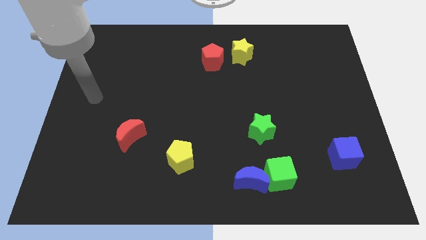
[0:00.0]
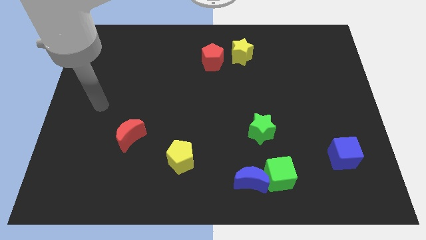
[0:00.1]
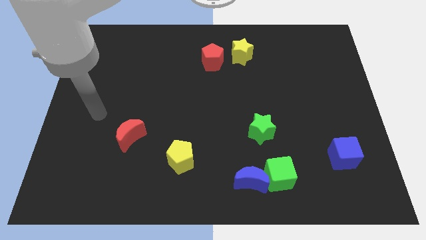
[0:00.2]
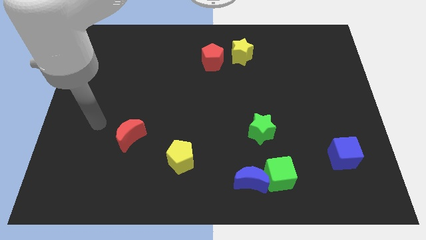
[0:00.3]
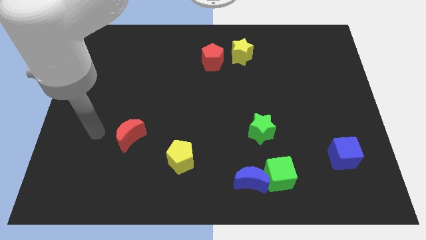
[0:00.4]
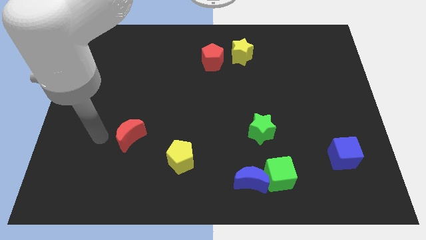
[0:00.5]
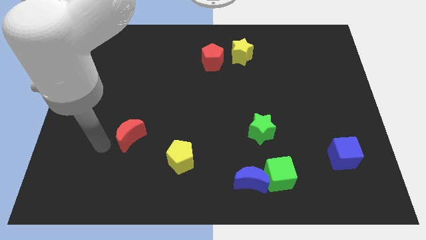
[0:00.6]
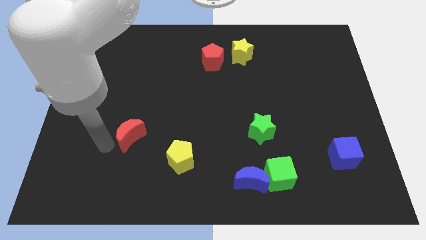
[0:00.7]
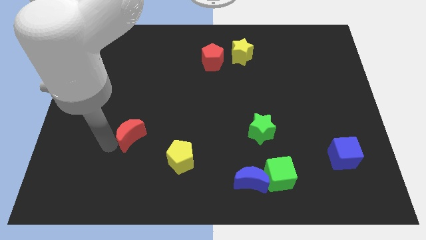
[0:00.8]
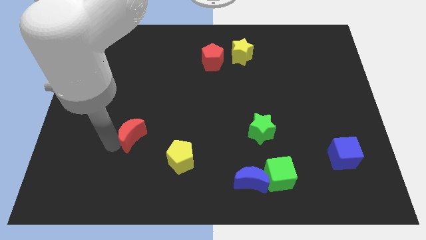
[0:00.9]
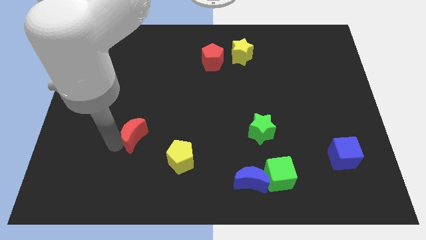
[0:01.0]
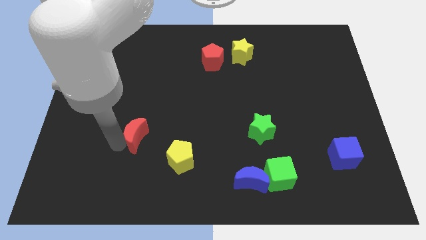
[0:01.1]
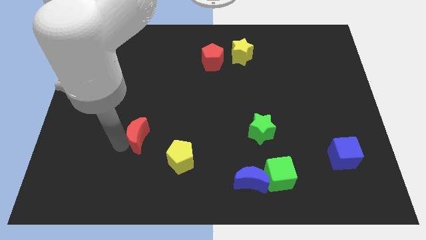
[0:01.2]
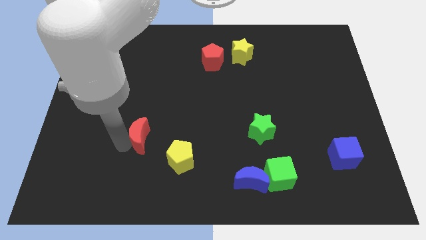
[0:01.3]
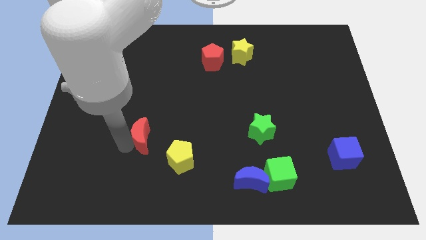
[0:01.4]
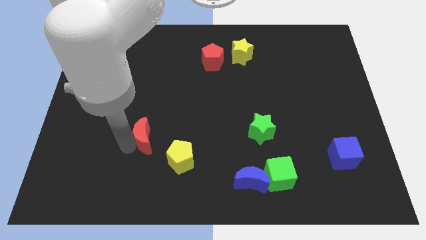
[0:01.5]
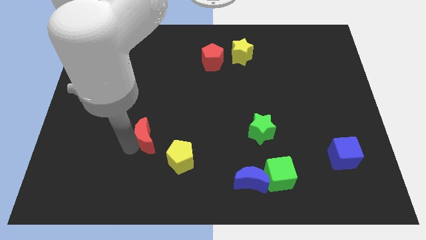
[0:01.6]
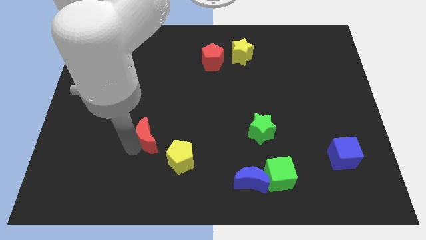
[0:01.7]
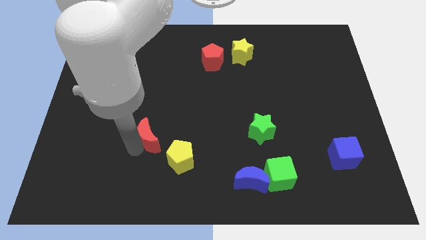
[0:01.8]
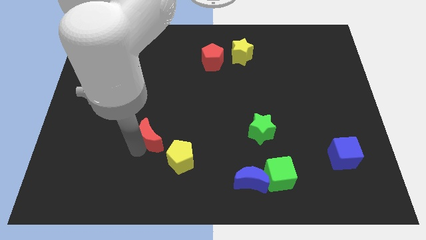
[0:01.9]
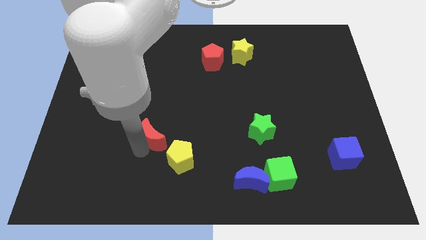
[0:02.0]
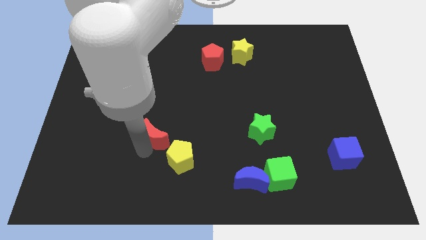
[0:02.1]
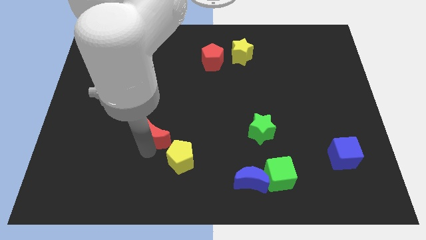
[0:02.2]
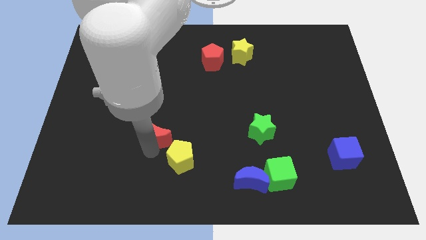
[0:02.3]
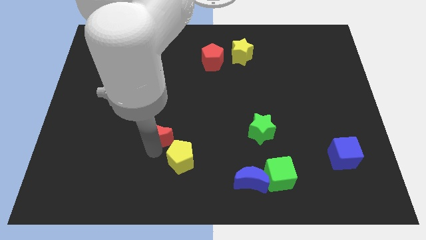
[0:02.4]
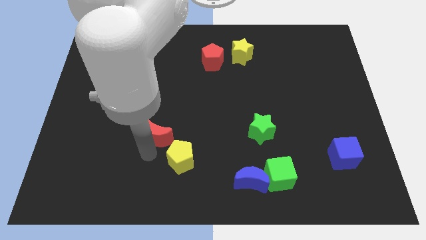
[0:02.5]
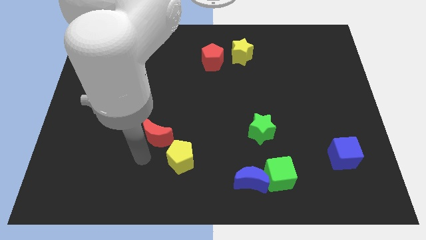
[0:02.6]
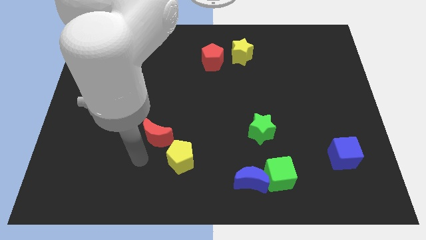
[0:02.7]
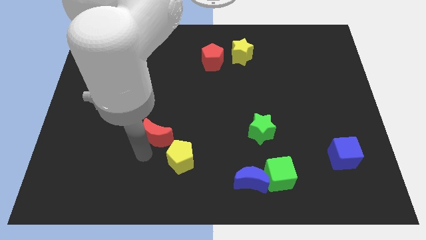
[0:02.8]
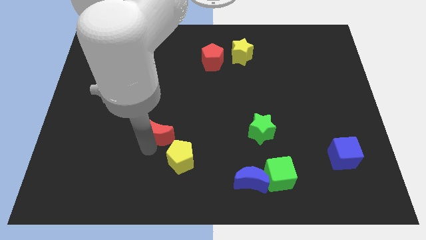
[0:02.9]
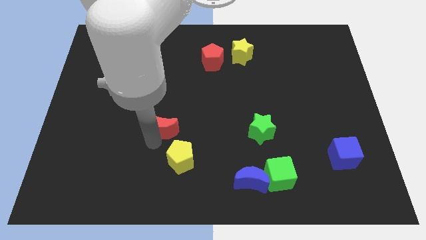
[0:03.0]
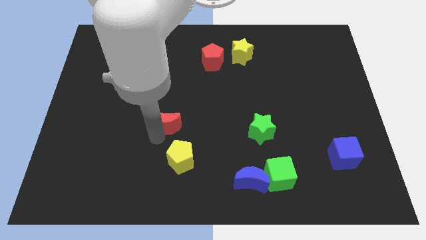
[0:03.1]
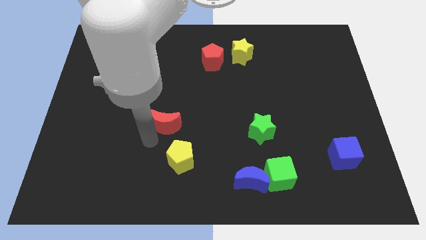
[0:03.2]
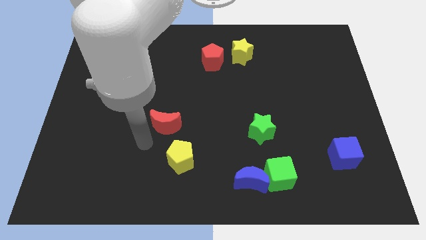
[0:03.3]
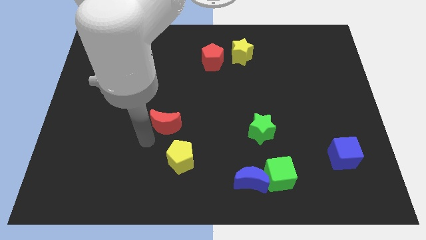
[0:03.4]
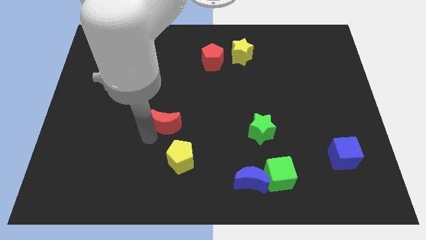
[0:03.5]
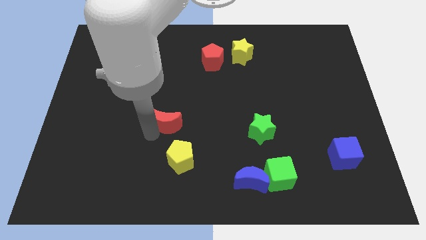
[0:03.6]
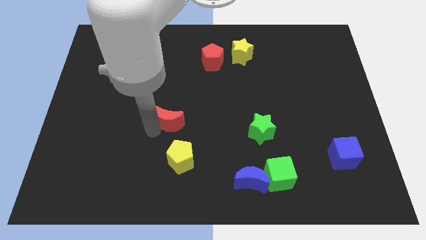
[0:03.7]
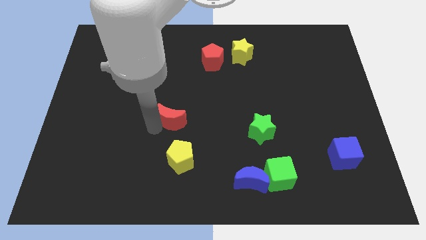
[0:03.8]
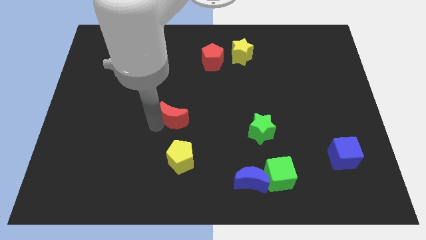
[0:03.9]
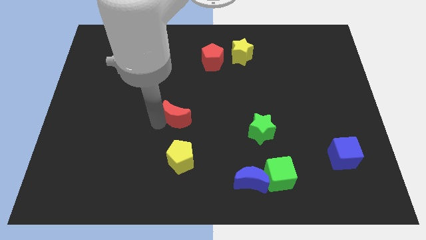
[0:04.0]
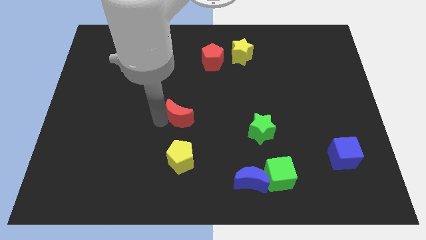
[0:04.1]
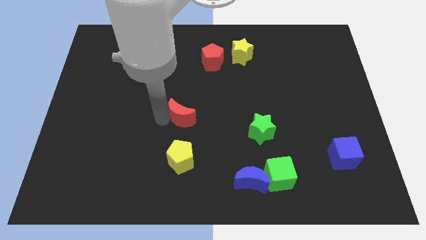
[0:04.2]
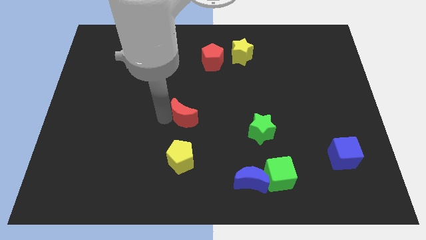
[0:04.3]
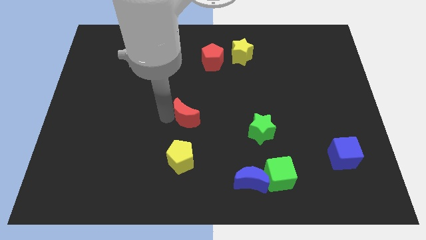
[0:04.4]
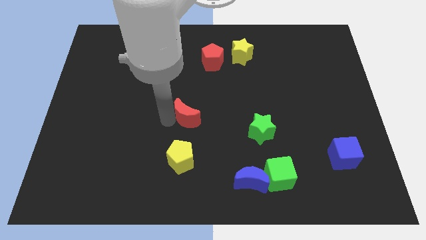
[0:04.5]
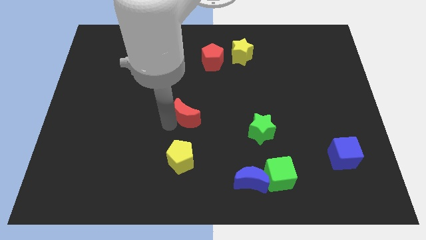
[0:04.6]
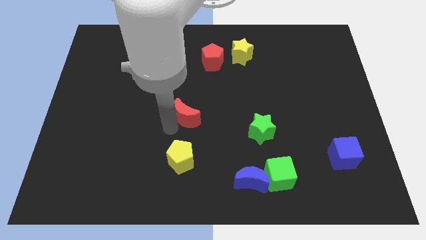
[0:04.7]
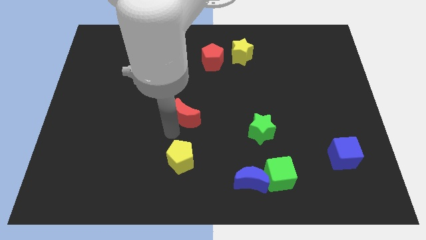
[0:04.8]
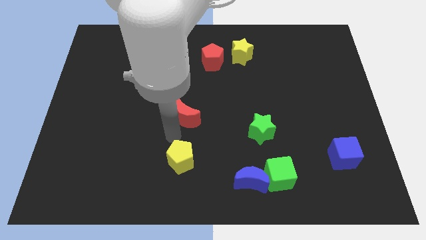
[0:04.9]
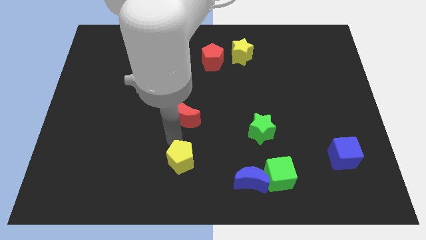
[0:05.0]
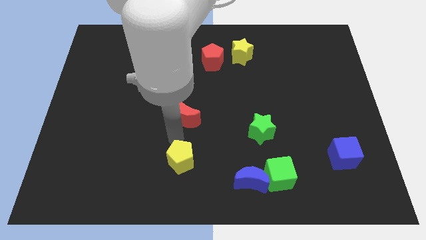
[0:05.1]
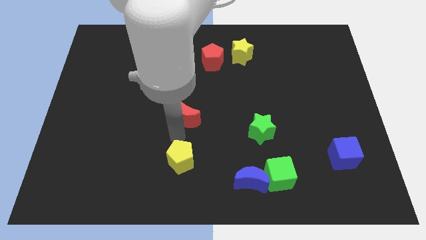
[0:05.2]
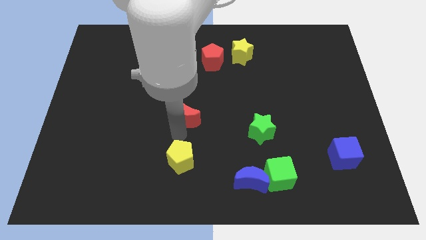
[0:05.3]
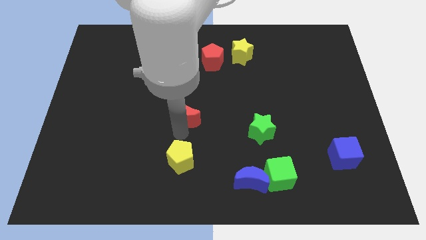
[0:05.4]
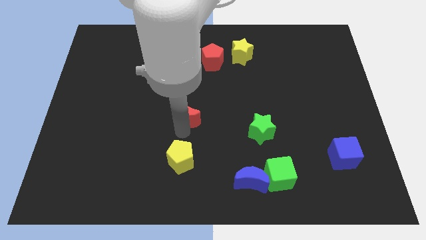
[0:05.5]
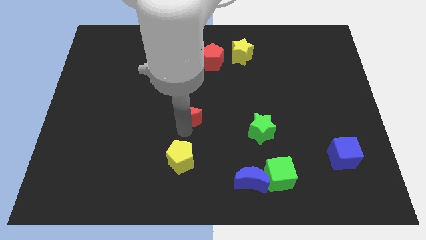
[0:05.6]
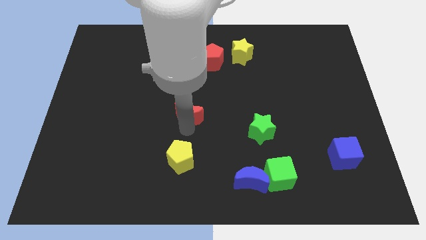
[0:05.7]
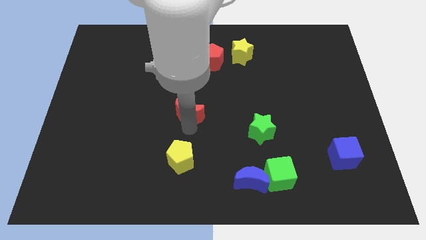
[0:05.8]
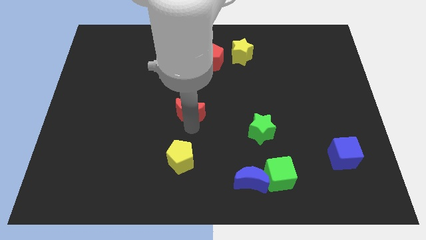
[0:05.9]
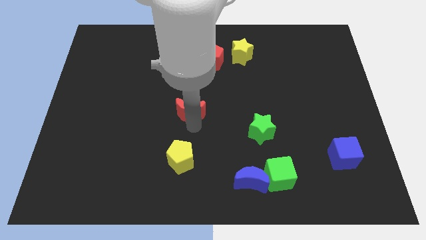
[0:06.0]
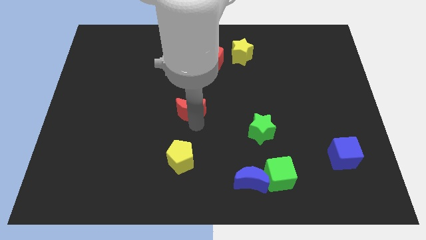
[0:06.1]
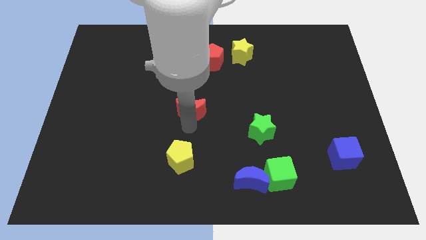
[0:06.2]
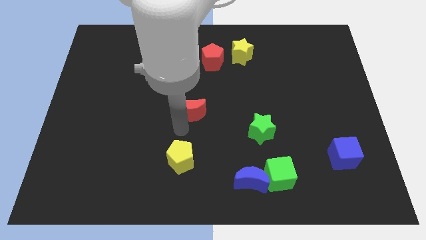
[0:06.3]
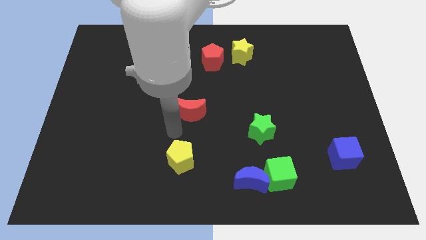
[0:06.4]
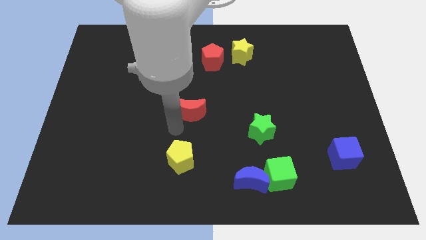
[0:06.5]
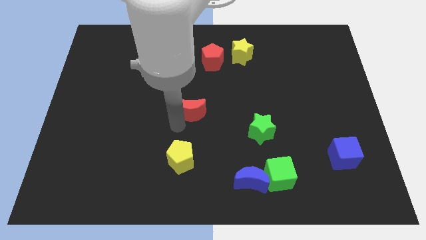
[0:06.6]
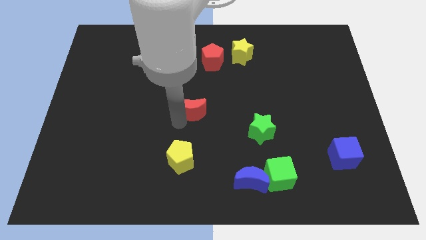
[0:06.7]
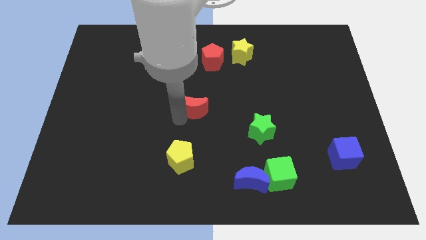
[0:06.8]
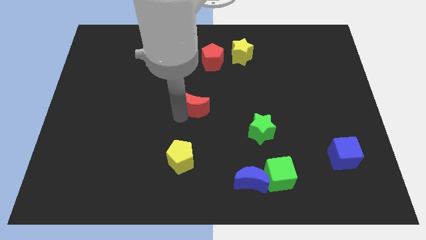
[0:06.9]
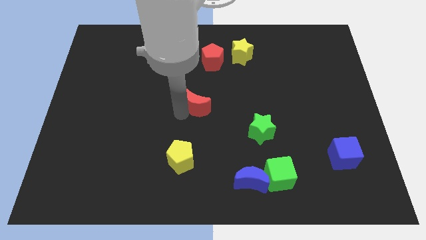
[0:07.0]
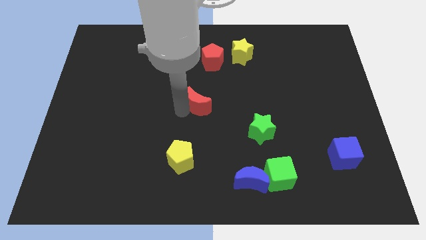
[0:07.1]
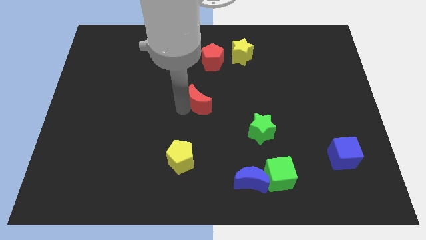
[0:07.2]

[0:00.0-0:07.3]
push the red moon below the red pentagon

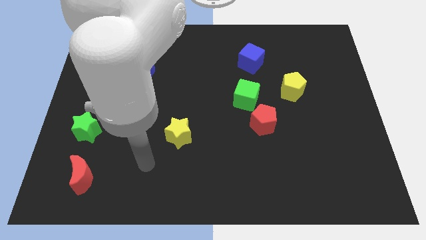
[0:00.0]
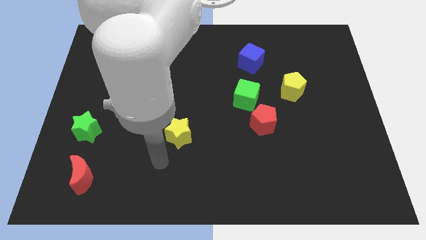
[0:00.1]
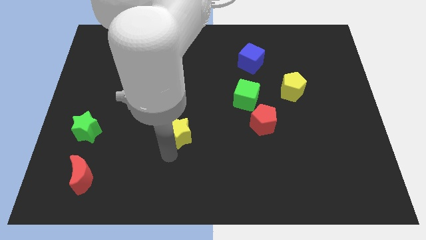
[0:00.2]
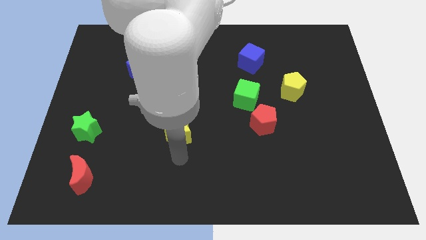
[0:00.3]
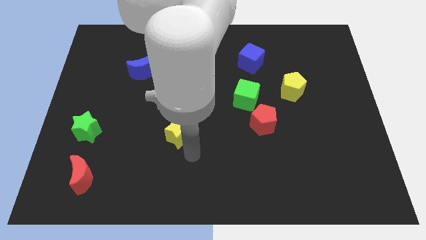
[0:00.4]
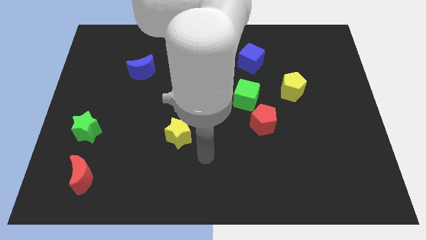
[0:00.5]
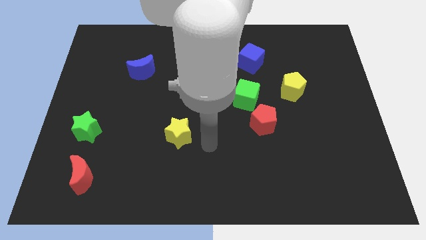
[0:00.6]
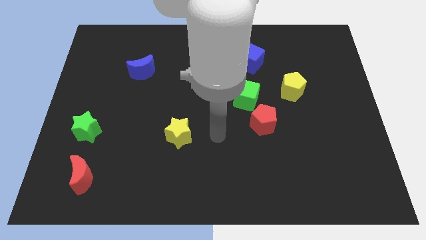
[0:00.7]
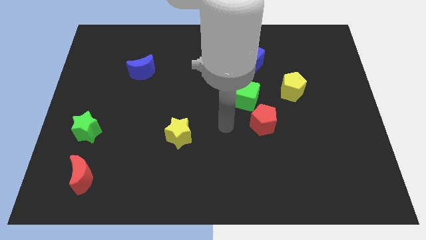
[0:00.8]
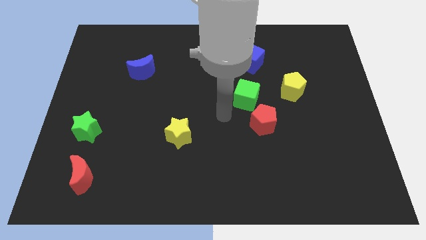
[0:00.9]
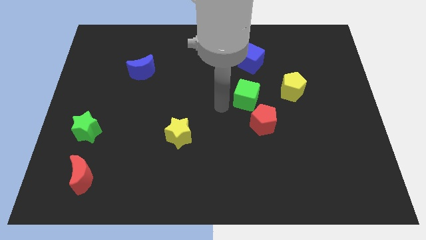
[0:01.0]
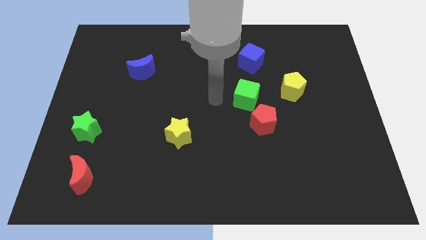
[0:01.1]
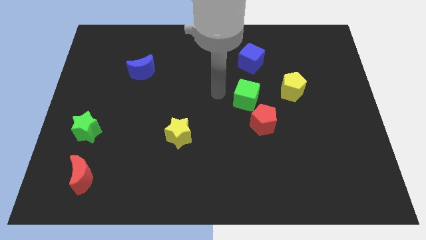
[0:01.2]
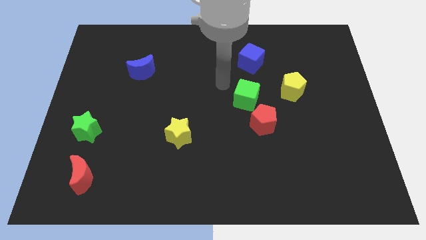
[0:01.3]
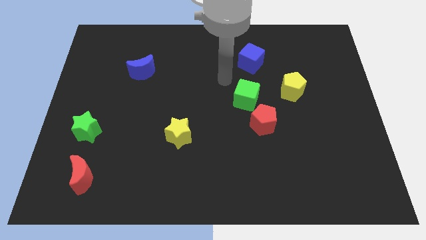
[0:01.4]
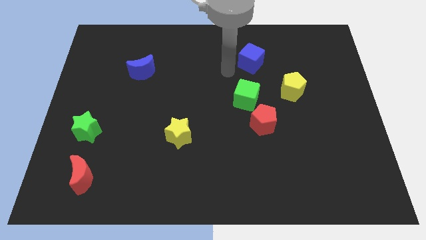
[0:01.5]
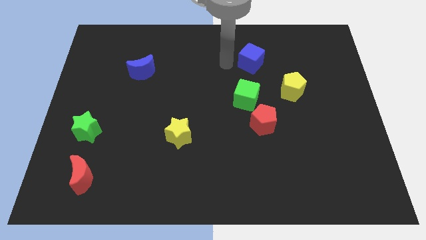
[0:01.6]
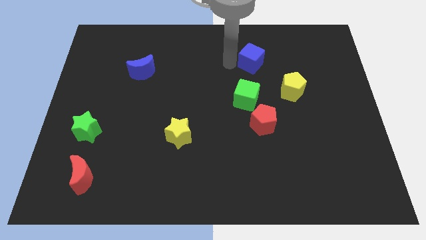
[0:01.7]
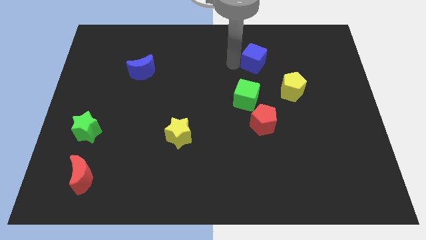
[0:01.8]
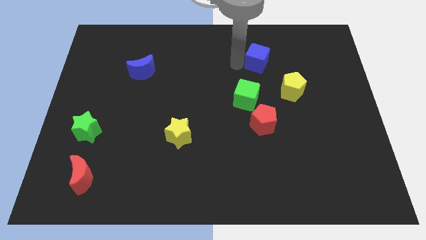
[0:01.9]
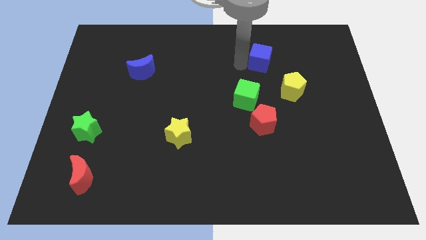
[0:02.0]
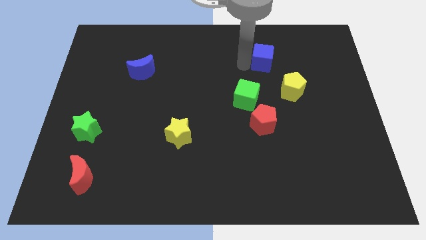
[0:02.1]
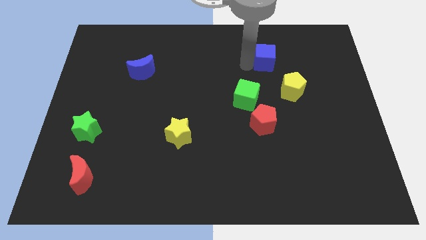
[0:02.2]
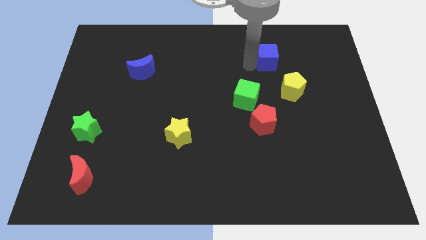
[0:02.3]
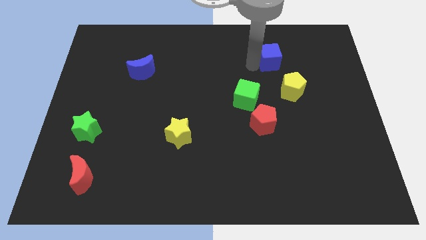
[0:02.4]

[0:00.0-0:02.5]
slide the blue cube to the top of the yellow pentagon
